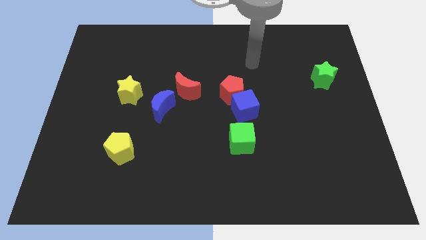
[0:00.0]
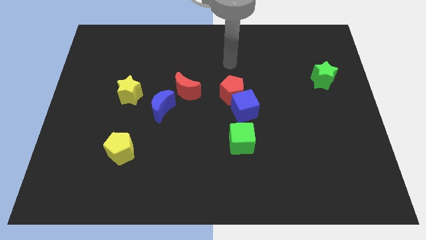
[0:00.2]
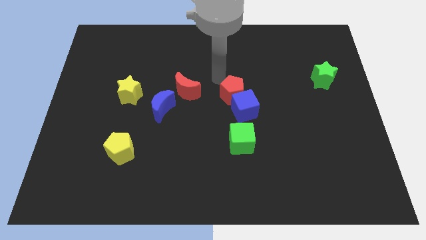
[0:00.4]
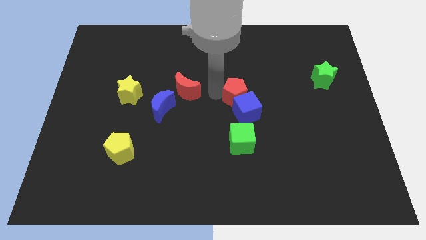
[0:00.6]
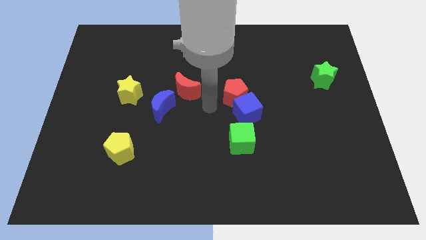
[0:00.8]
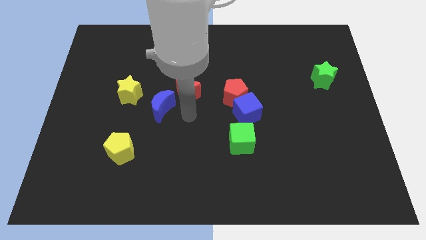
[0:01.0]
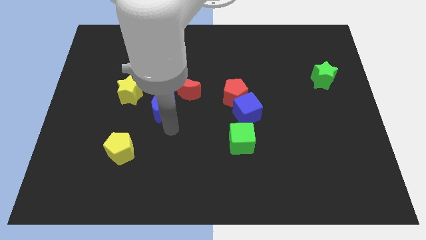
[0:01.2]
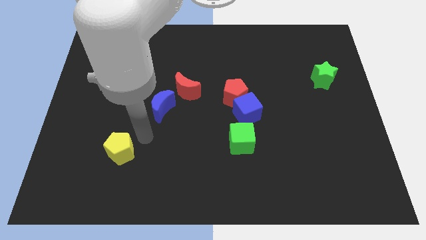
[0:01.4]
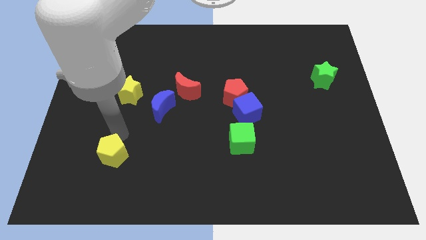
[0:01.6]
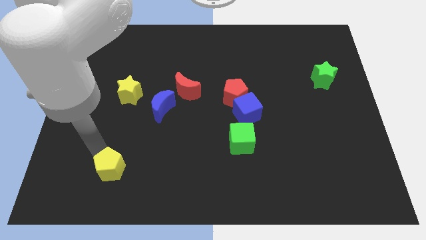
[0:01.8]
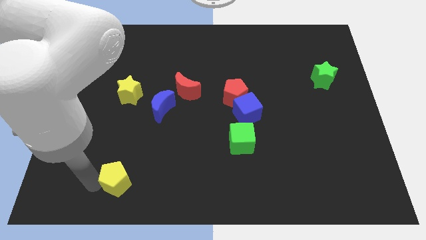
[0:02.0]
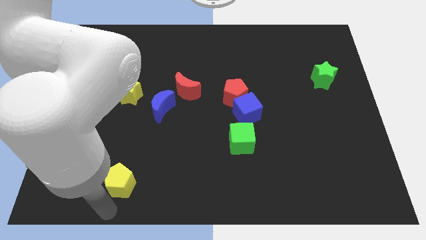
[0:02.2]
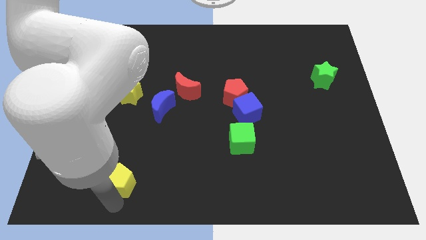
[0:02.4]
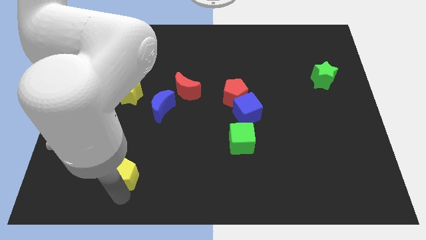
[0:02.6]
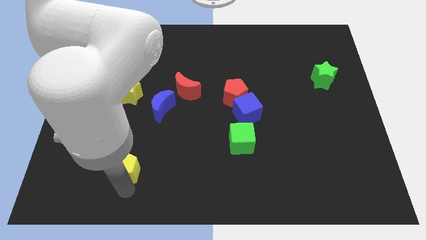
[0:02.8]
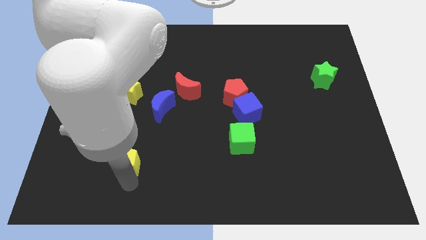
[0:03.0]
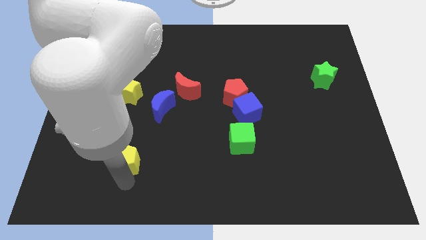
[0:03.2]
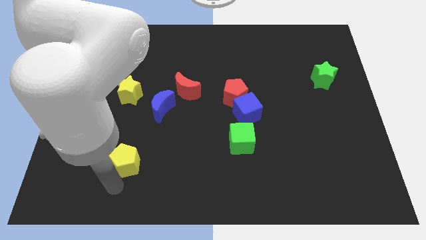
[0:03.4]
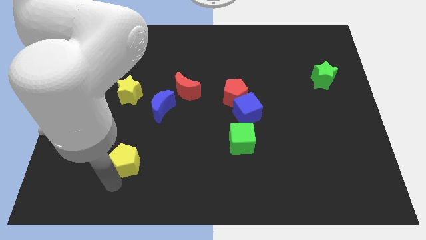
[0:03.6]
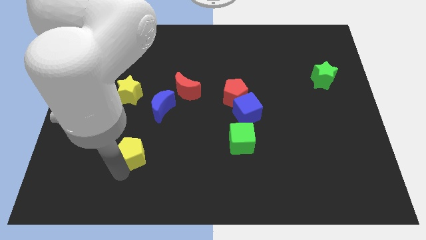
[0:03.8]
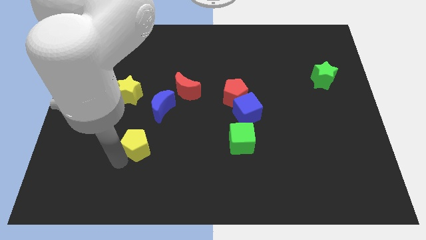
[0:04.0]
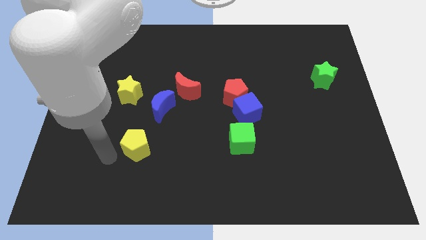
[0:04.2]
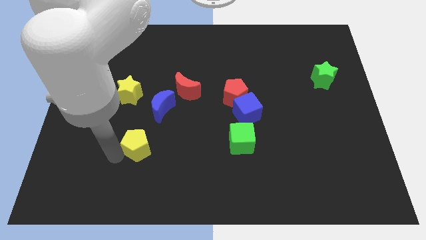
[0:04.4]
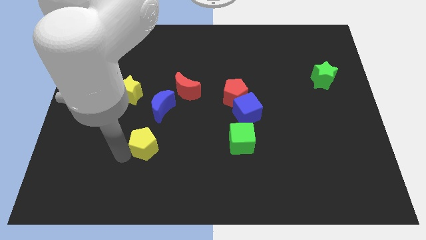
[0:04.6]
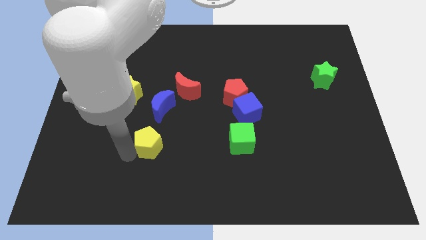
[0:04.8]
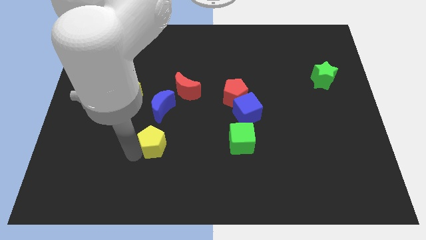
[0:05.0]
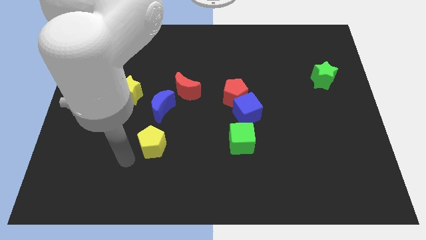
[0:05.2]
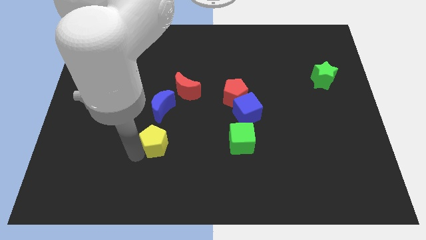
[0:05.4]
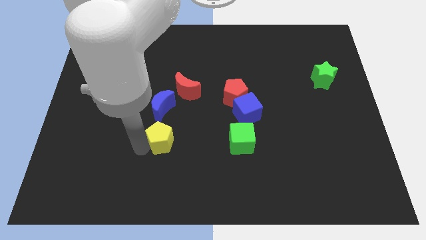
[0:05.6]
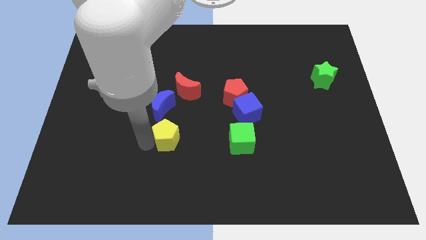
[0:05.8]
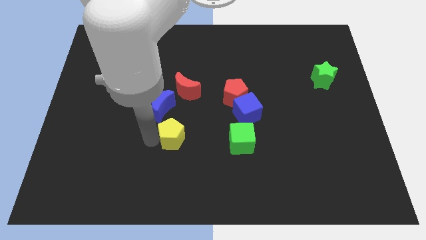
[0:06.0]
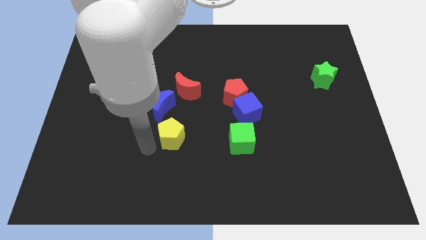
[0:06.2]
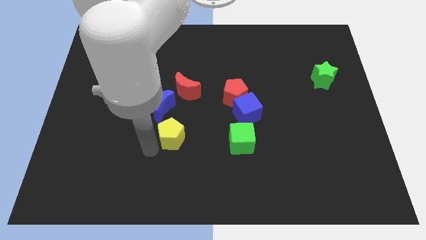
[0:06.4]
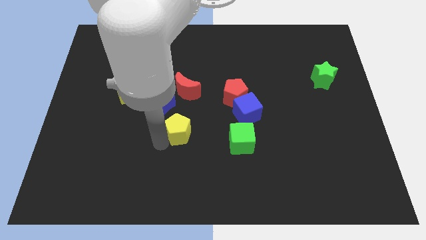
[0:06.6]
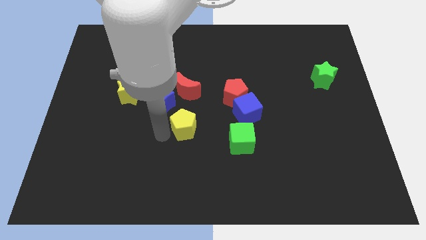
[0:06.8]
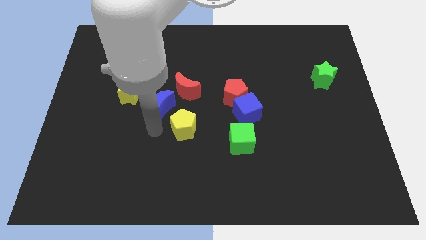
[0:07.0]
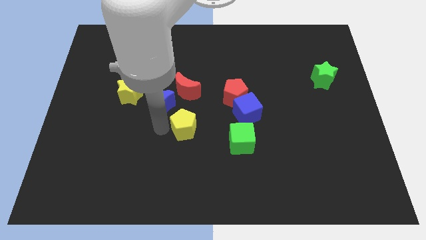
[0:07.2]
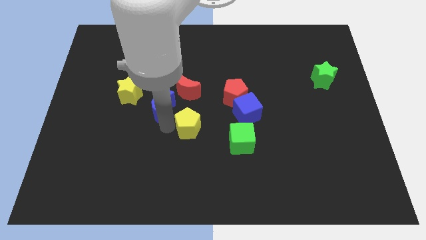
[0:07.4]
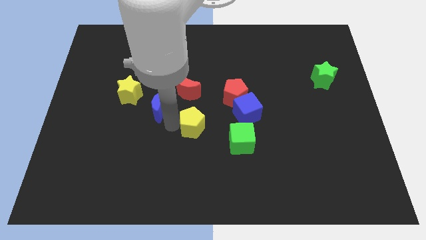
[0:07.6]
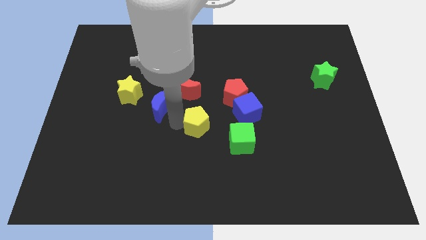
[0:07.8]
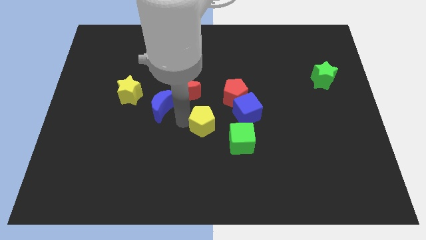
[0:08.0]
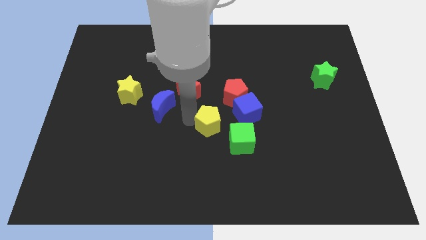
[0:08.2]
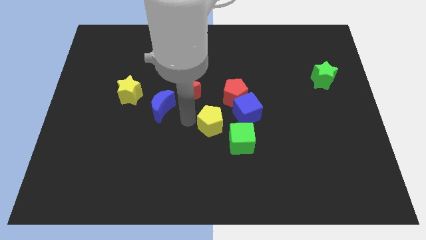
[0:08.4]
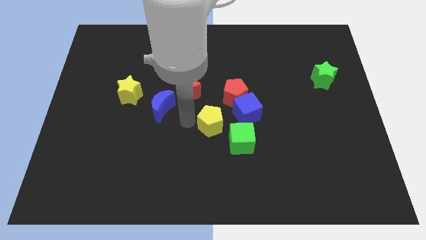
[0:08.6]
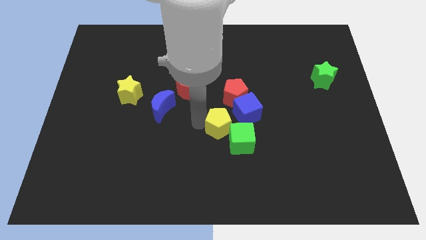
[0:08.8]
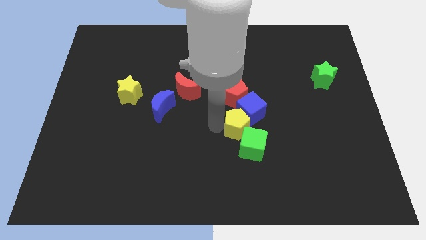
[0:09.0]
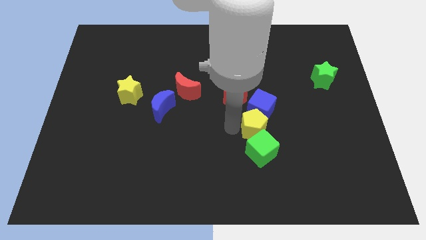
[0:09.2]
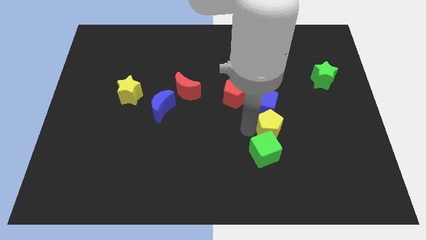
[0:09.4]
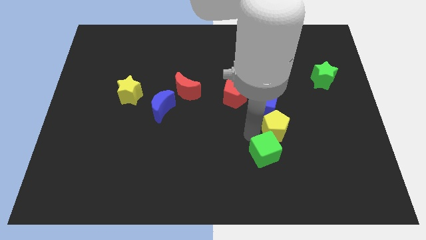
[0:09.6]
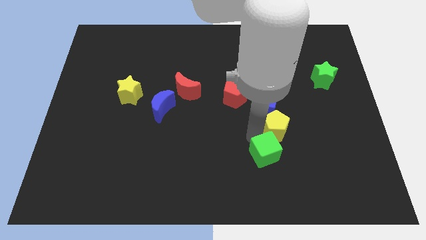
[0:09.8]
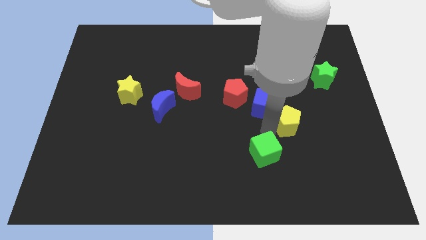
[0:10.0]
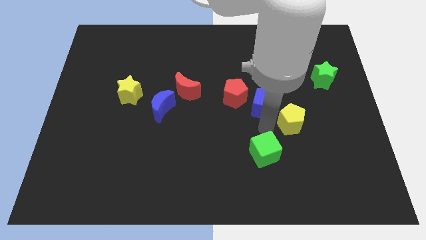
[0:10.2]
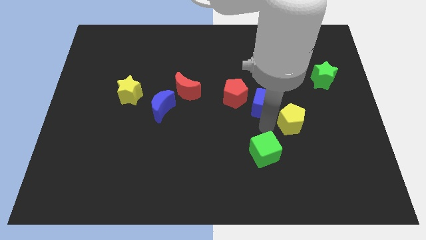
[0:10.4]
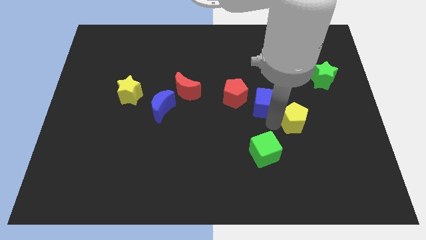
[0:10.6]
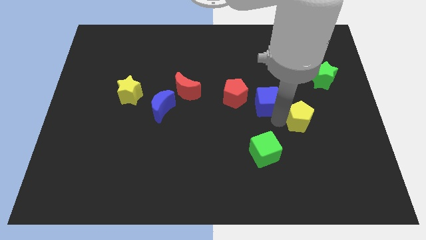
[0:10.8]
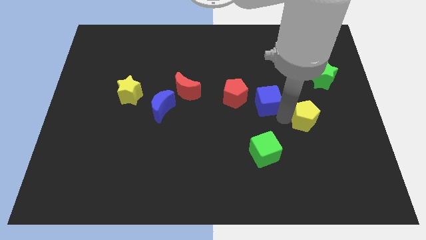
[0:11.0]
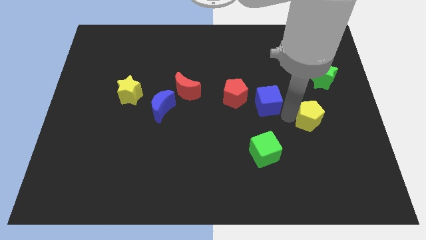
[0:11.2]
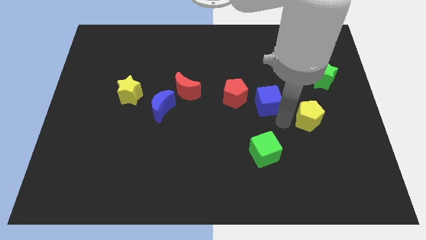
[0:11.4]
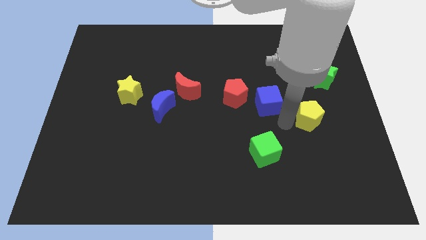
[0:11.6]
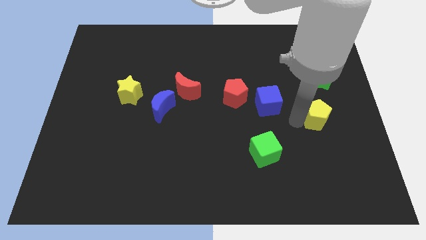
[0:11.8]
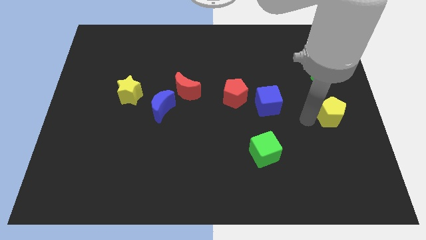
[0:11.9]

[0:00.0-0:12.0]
move the yellow pentagon to the right side
